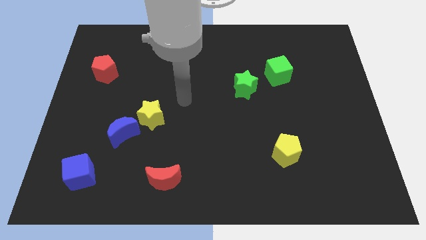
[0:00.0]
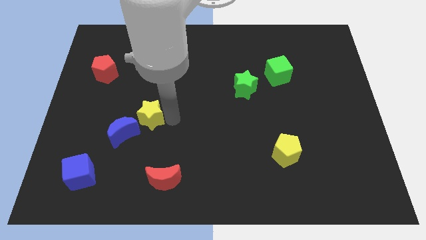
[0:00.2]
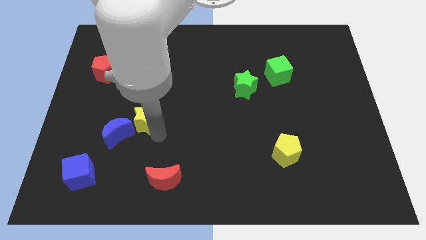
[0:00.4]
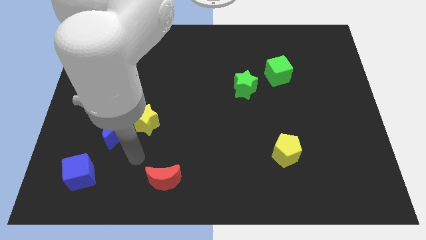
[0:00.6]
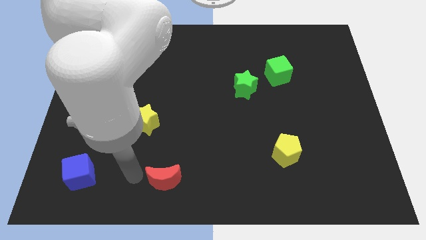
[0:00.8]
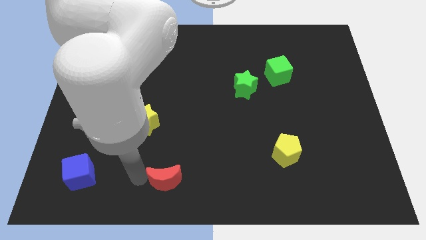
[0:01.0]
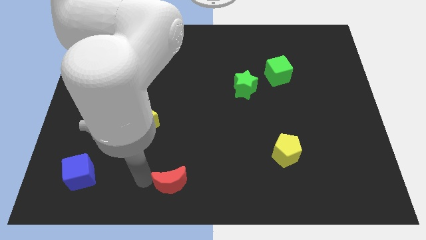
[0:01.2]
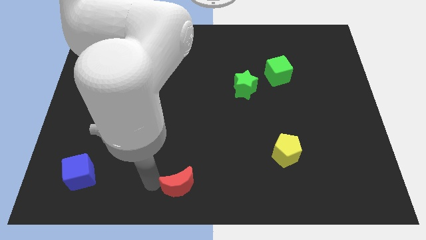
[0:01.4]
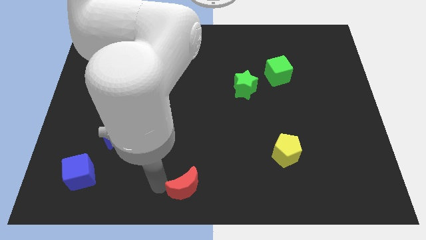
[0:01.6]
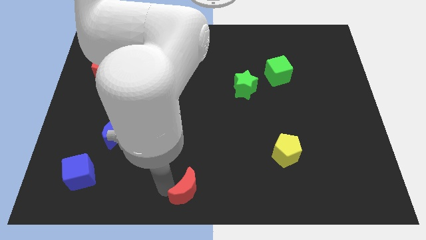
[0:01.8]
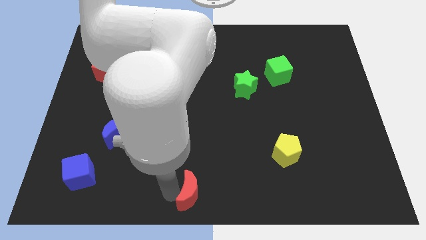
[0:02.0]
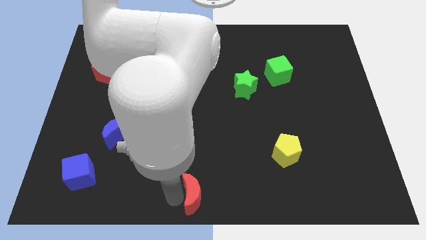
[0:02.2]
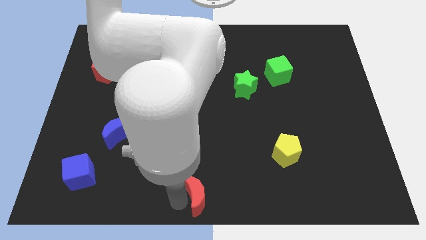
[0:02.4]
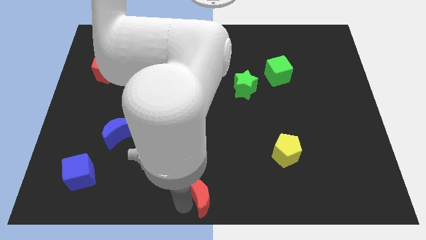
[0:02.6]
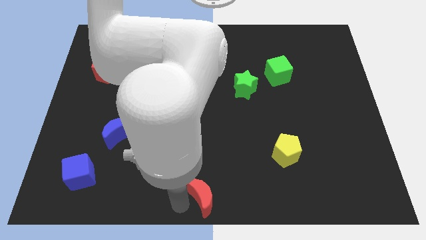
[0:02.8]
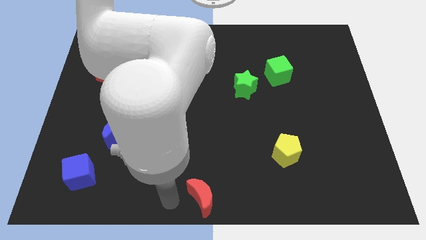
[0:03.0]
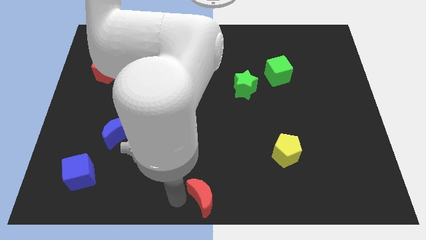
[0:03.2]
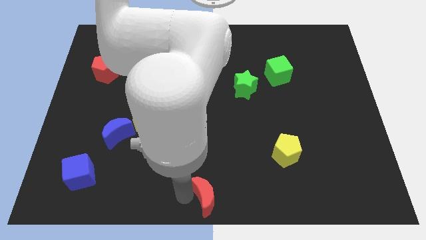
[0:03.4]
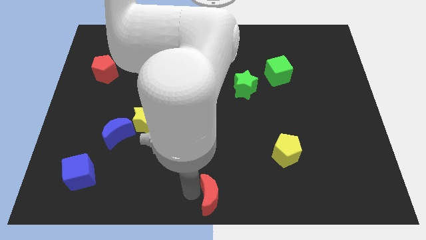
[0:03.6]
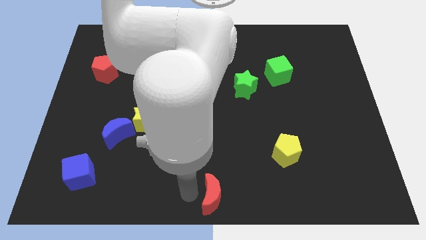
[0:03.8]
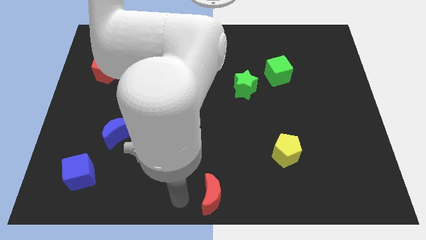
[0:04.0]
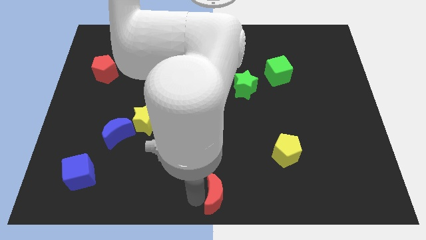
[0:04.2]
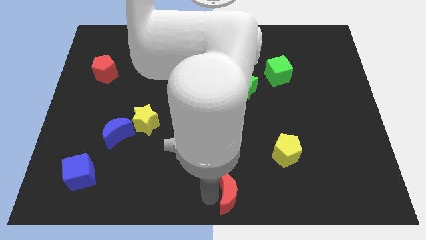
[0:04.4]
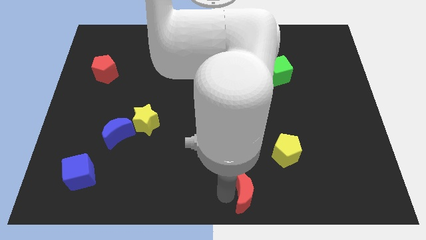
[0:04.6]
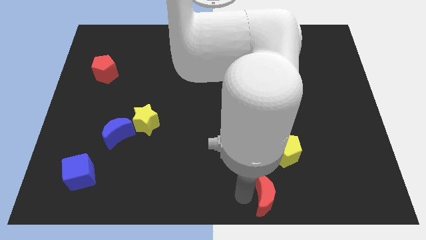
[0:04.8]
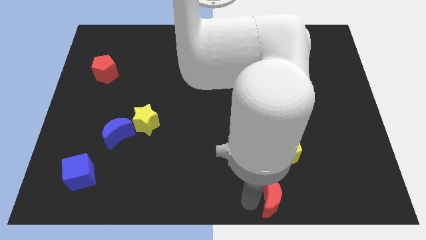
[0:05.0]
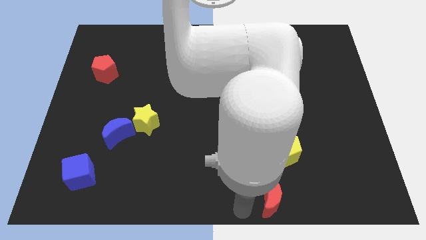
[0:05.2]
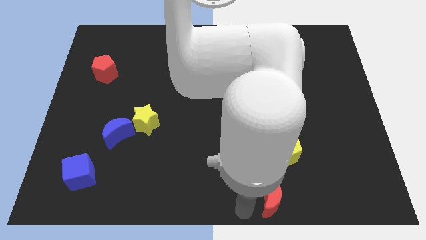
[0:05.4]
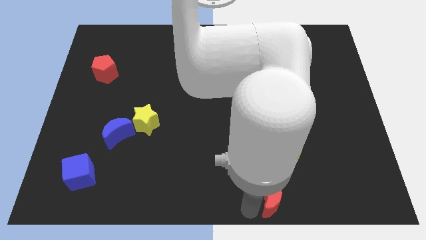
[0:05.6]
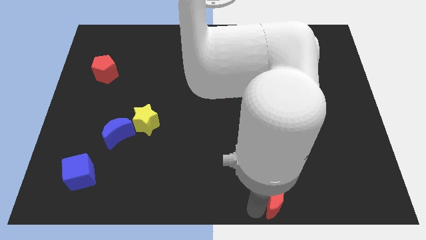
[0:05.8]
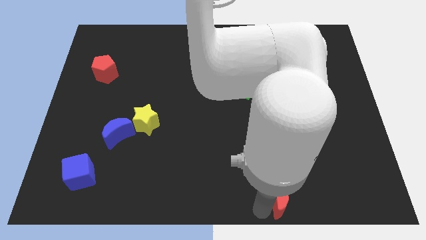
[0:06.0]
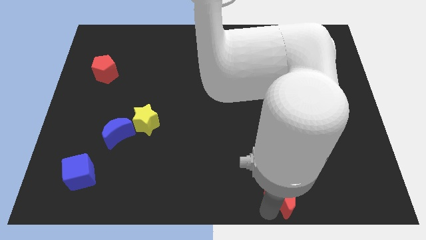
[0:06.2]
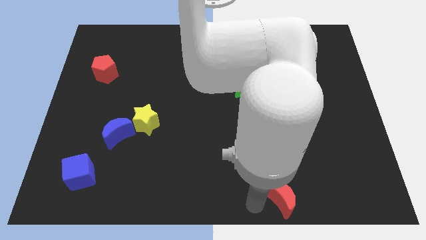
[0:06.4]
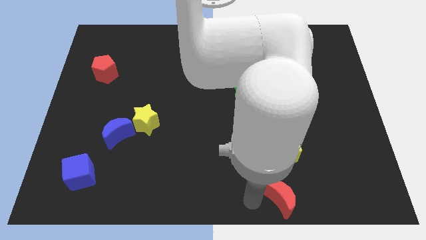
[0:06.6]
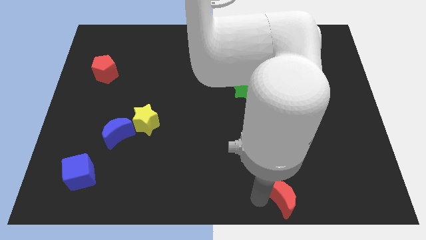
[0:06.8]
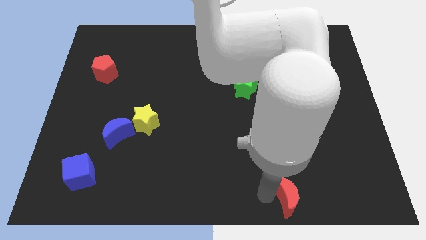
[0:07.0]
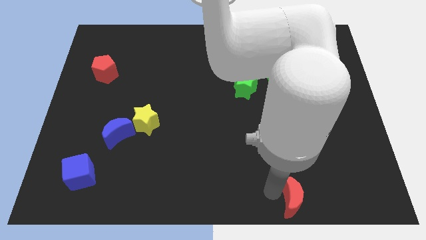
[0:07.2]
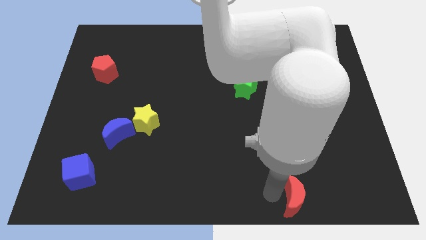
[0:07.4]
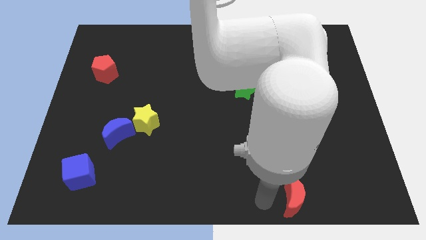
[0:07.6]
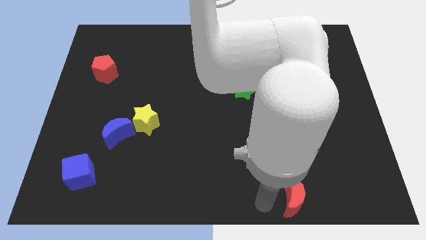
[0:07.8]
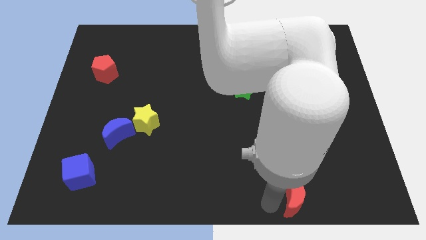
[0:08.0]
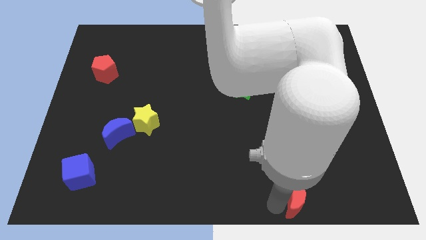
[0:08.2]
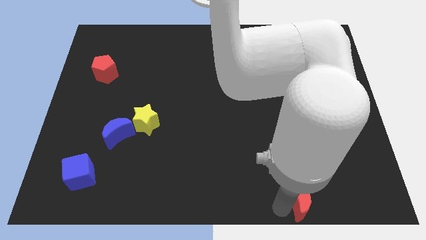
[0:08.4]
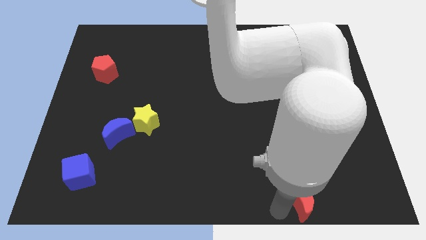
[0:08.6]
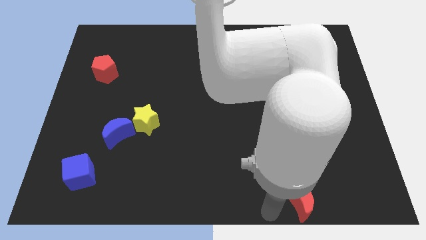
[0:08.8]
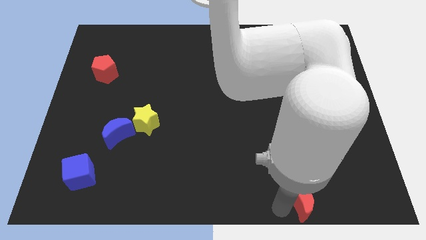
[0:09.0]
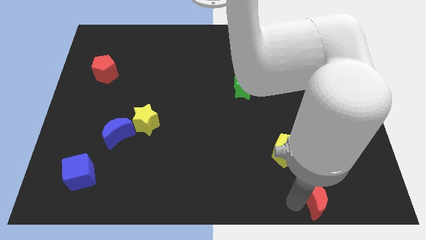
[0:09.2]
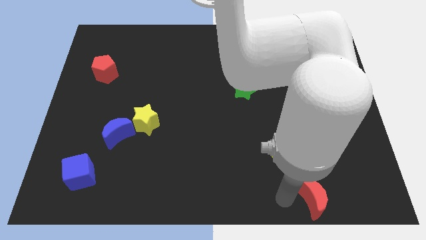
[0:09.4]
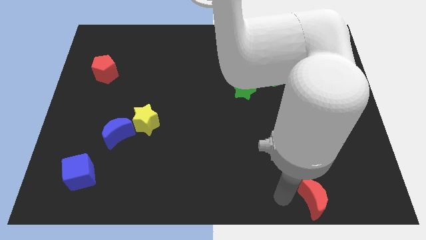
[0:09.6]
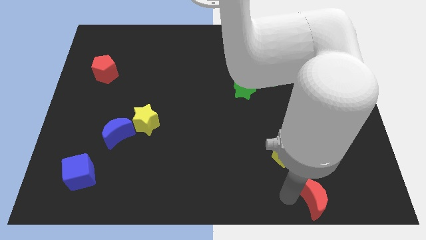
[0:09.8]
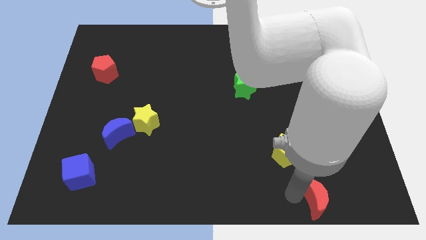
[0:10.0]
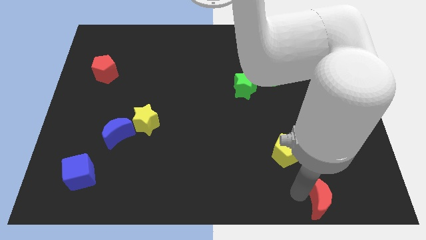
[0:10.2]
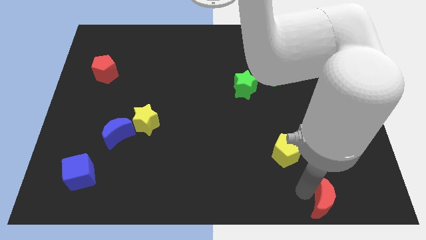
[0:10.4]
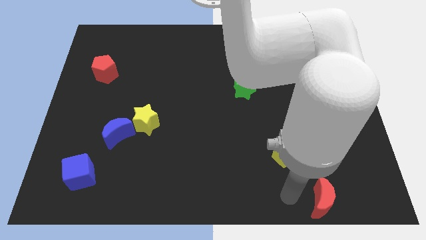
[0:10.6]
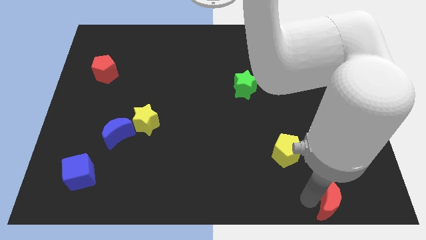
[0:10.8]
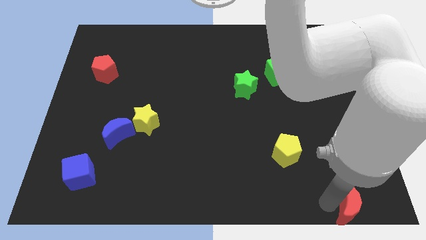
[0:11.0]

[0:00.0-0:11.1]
put the red moon to the bottom right

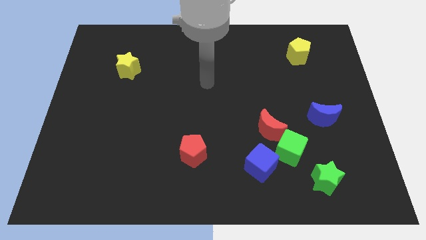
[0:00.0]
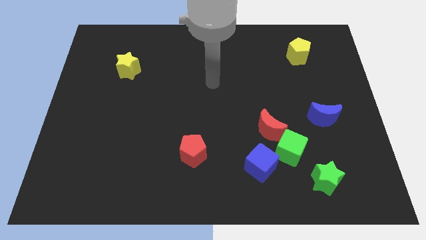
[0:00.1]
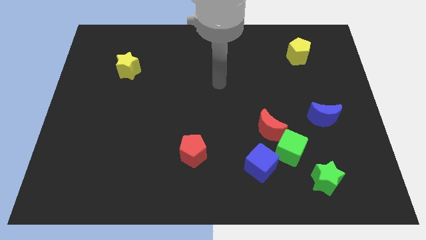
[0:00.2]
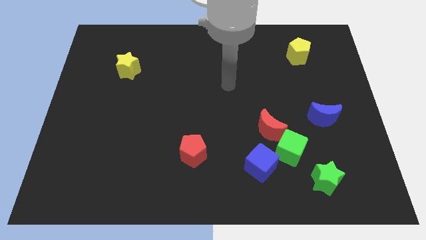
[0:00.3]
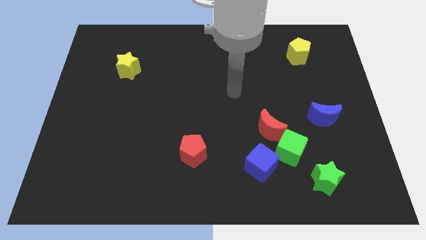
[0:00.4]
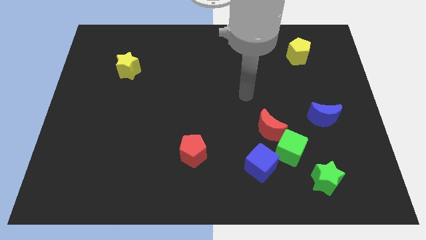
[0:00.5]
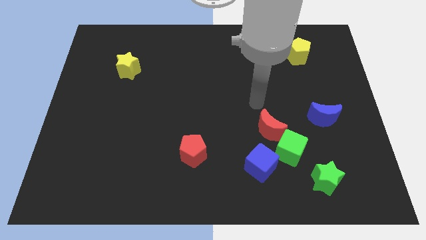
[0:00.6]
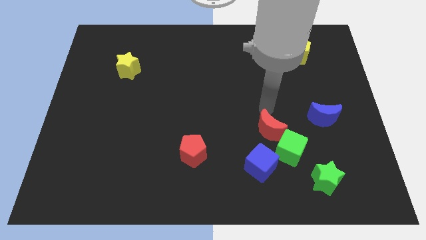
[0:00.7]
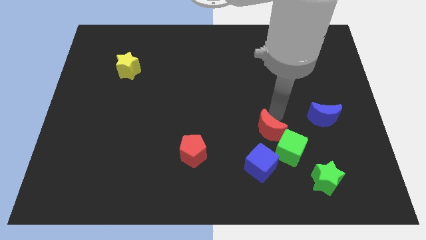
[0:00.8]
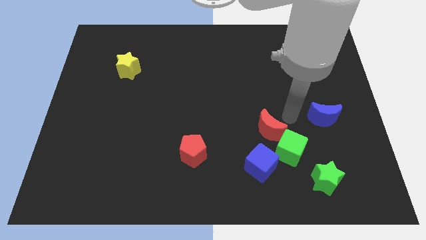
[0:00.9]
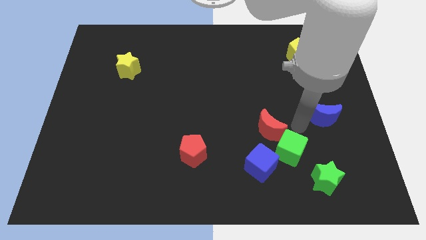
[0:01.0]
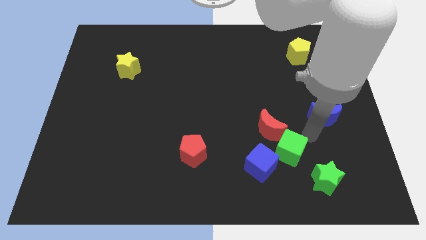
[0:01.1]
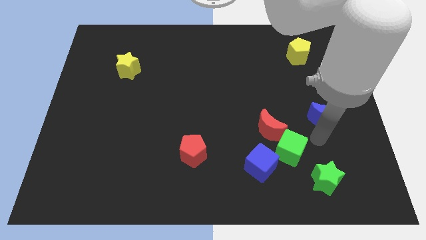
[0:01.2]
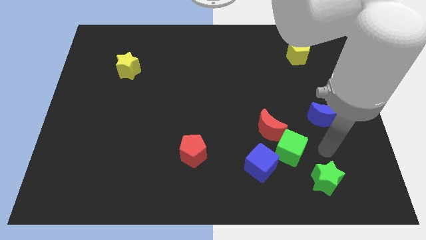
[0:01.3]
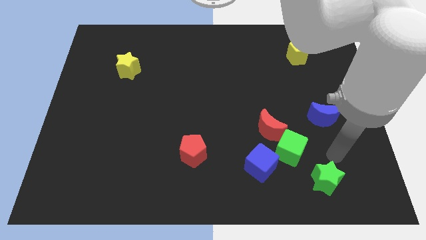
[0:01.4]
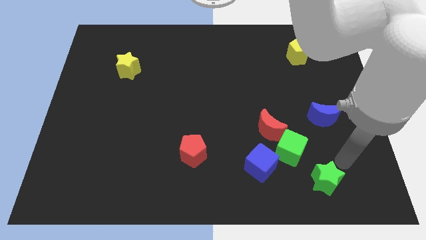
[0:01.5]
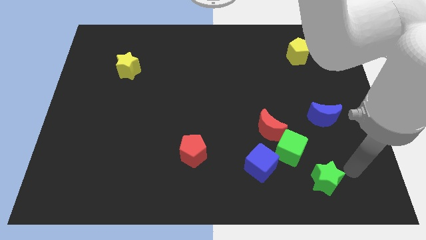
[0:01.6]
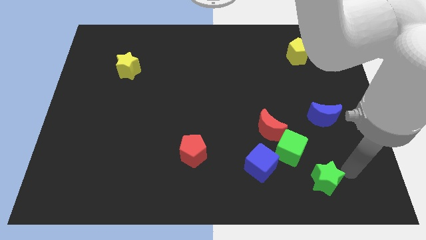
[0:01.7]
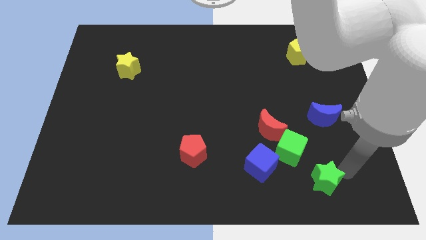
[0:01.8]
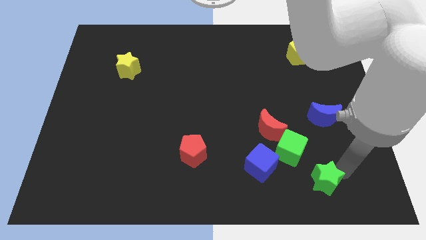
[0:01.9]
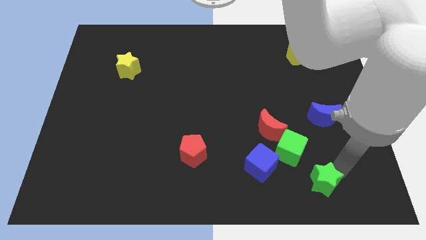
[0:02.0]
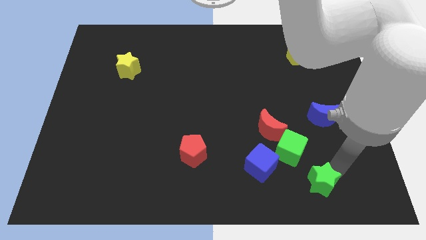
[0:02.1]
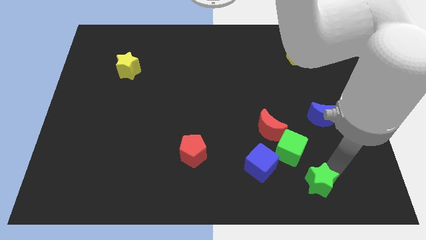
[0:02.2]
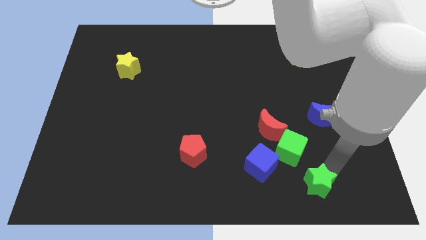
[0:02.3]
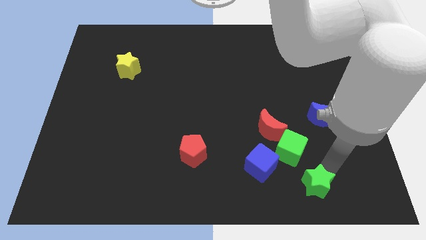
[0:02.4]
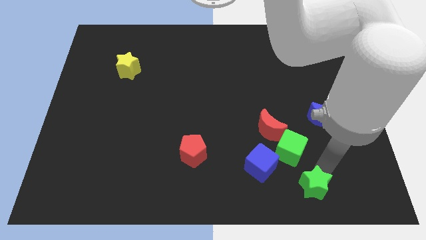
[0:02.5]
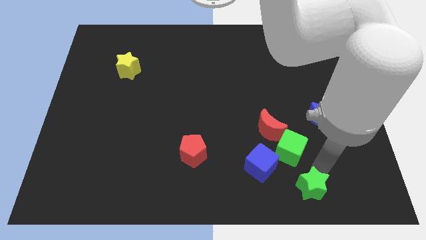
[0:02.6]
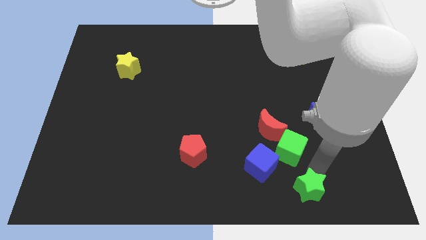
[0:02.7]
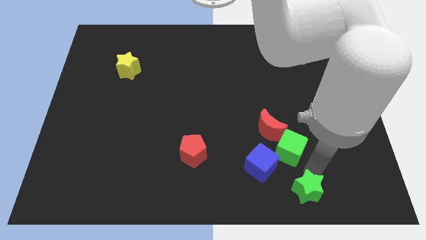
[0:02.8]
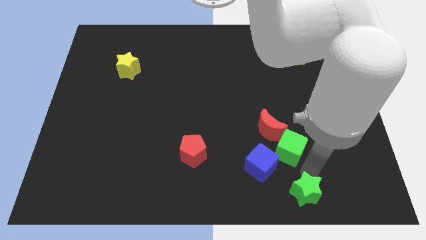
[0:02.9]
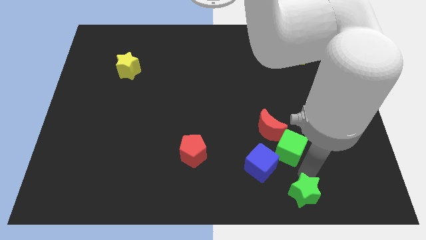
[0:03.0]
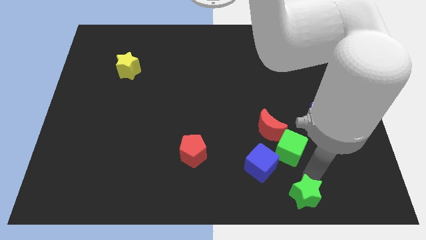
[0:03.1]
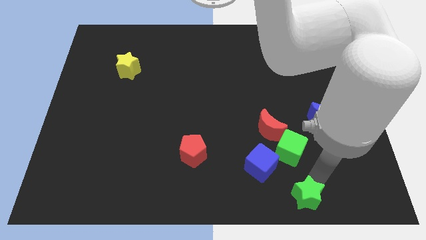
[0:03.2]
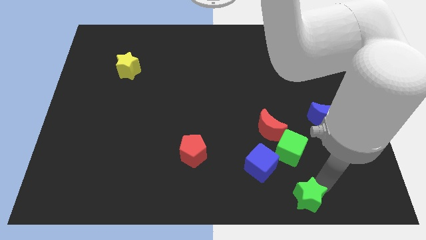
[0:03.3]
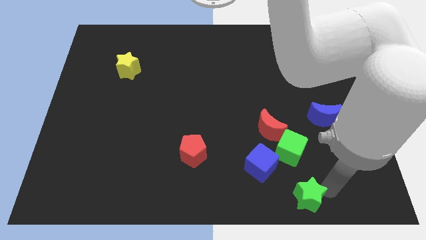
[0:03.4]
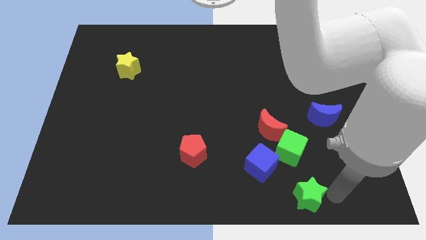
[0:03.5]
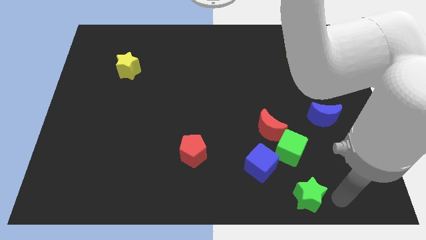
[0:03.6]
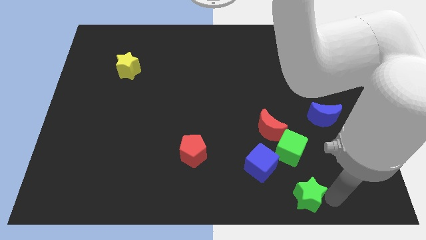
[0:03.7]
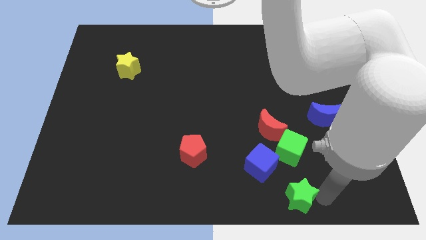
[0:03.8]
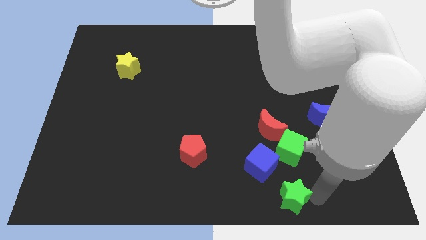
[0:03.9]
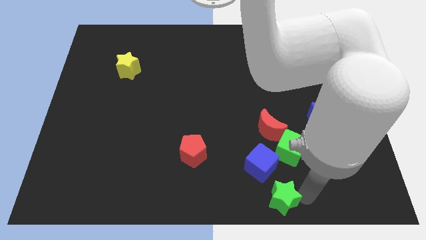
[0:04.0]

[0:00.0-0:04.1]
push the green star to the bottom side
